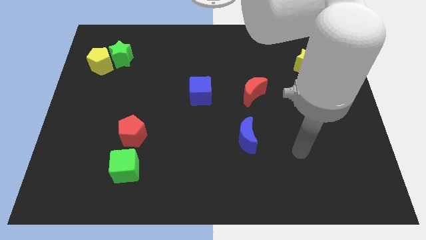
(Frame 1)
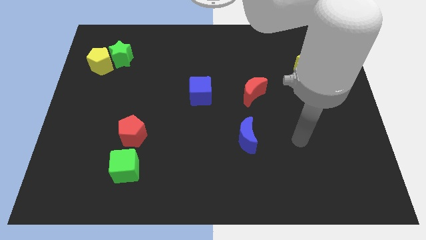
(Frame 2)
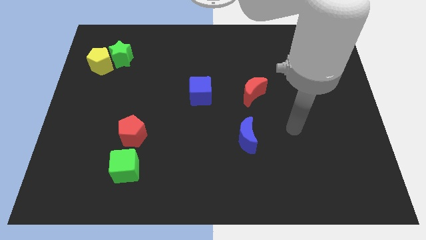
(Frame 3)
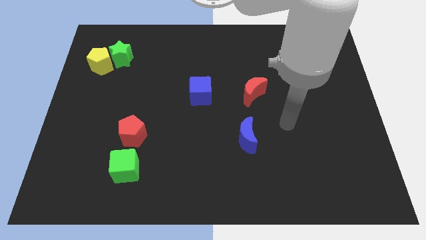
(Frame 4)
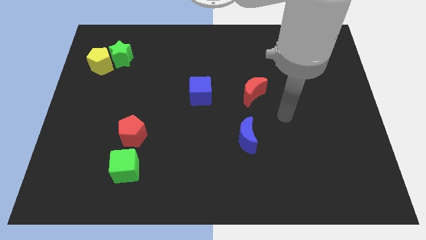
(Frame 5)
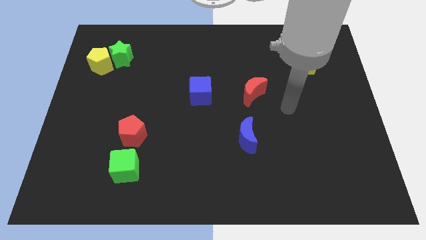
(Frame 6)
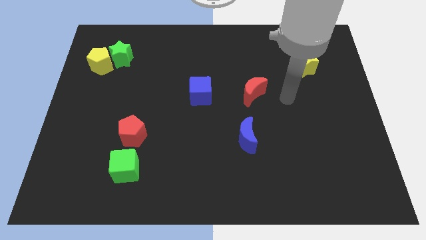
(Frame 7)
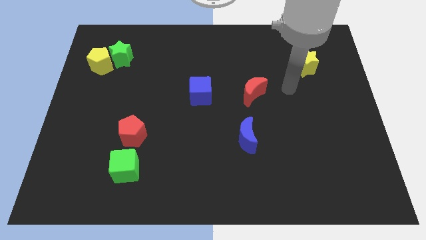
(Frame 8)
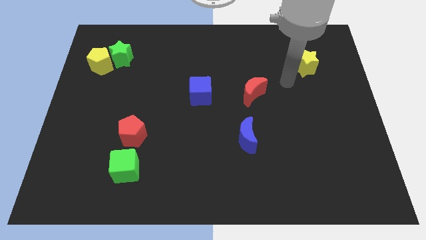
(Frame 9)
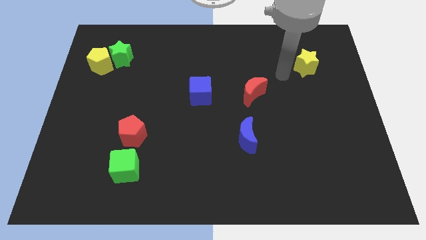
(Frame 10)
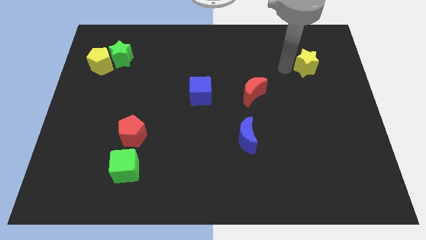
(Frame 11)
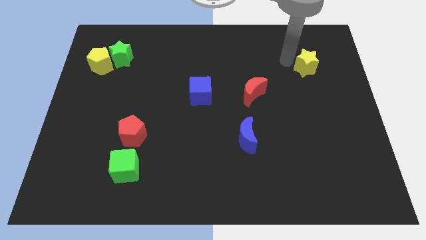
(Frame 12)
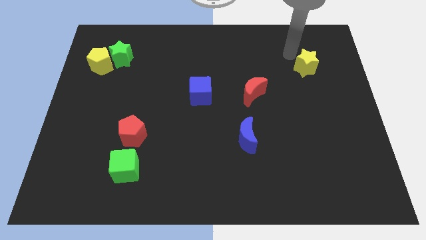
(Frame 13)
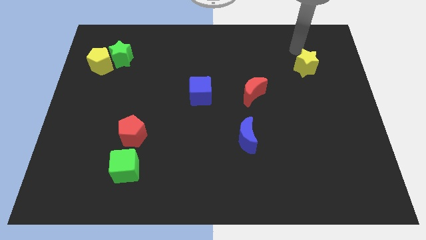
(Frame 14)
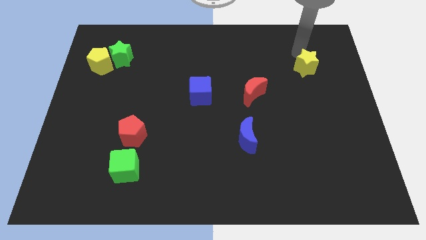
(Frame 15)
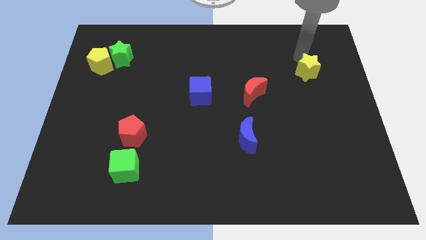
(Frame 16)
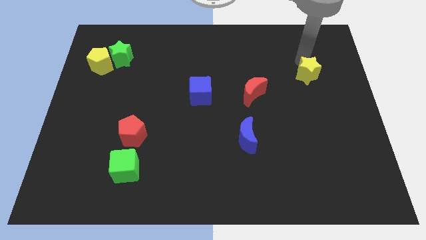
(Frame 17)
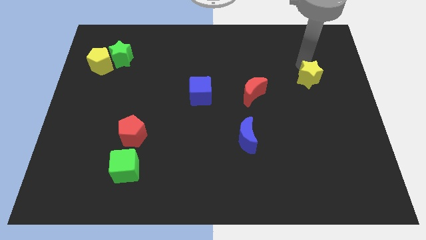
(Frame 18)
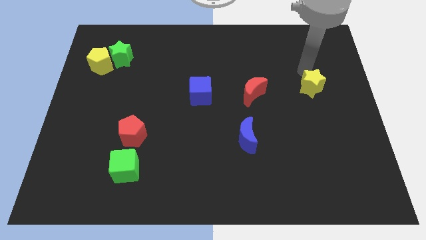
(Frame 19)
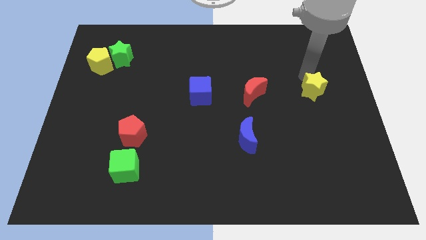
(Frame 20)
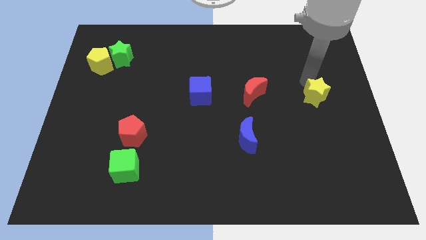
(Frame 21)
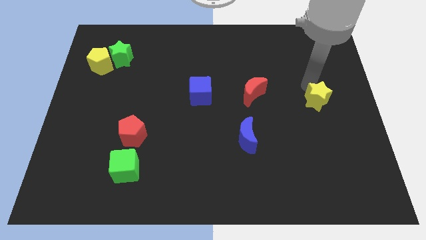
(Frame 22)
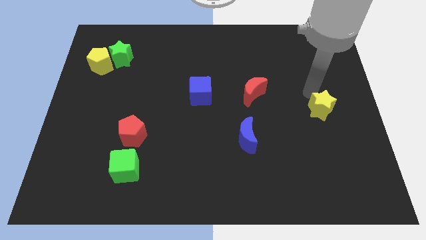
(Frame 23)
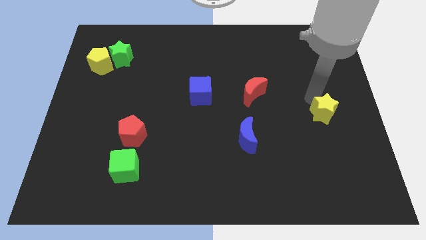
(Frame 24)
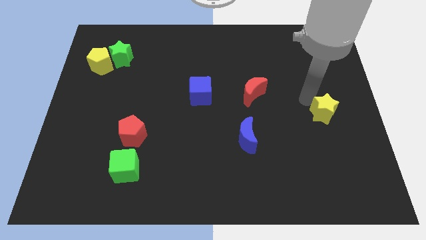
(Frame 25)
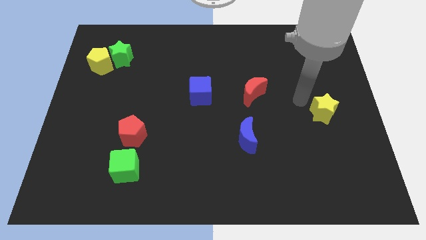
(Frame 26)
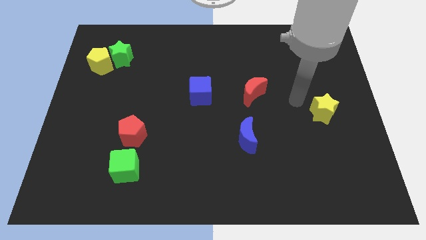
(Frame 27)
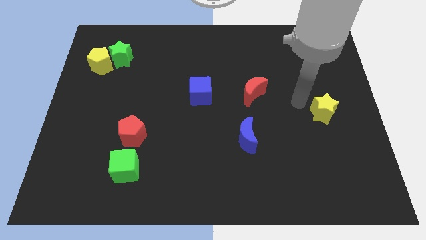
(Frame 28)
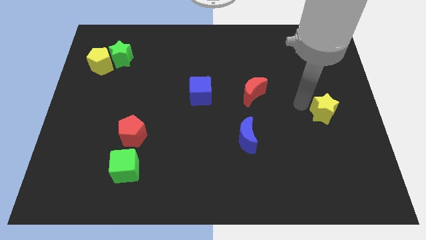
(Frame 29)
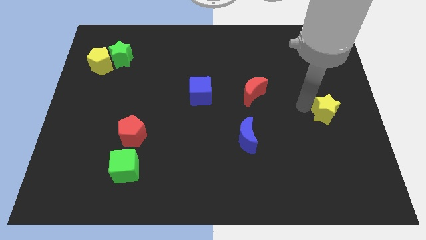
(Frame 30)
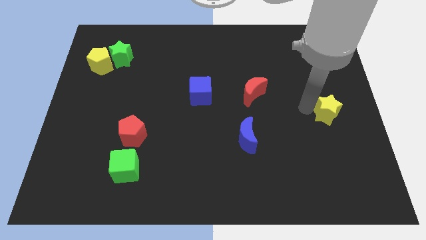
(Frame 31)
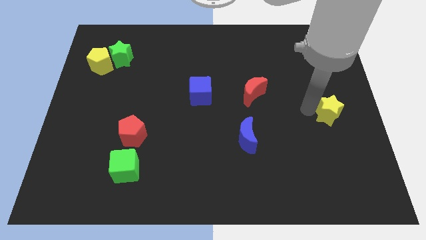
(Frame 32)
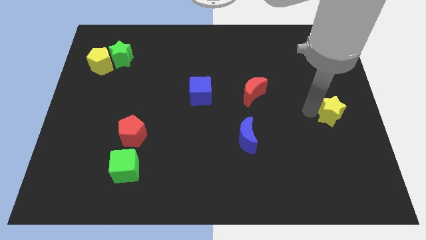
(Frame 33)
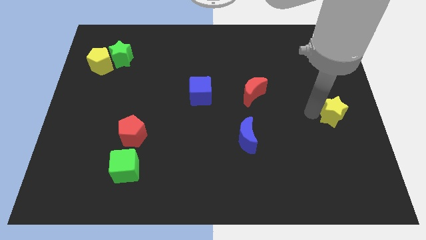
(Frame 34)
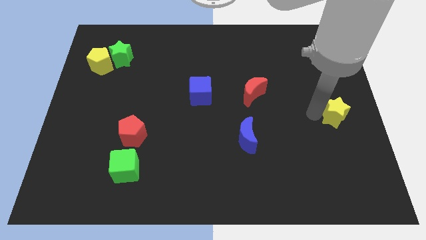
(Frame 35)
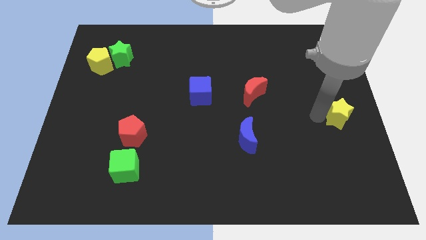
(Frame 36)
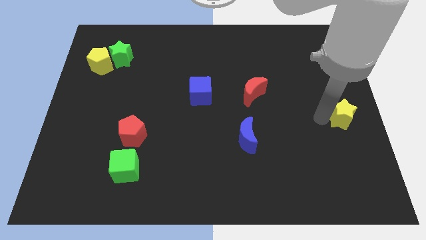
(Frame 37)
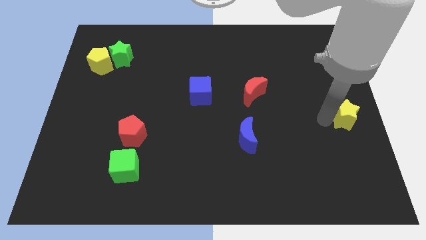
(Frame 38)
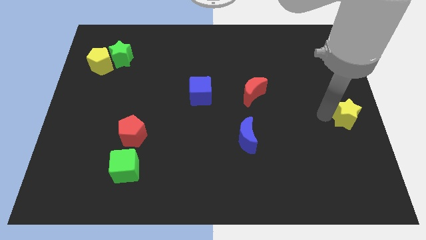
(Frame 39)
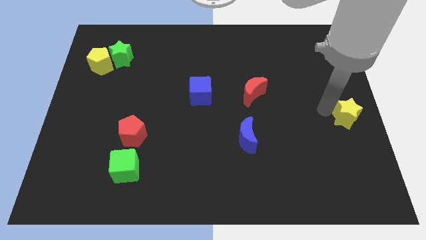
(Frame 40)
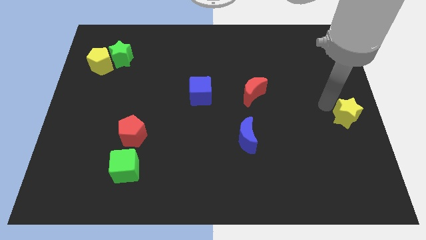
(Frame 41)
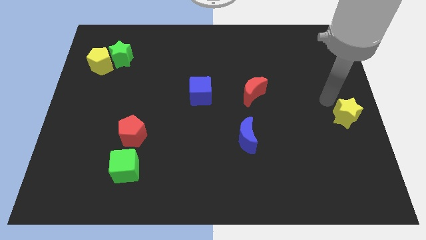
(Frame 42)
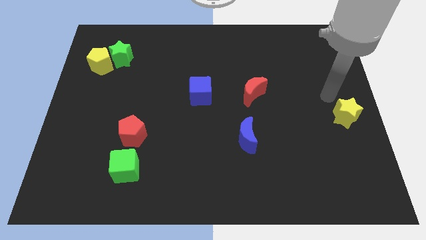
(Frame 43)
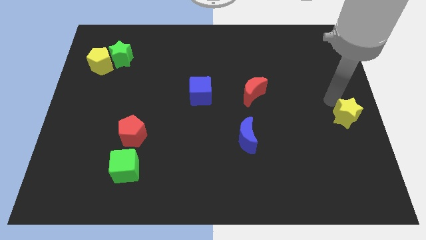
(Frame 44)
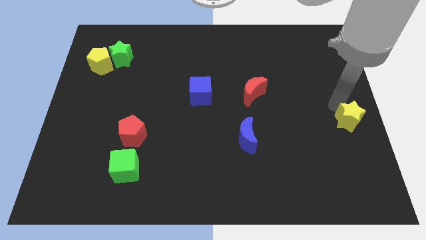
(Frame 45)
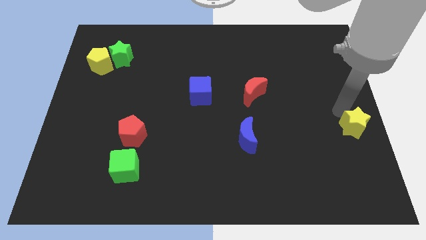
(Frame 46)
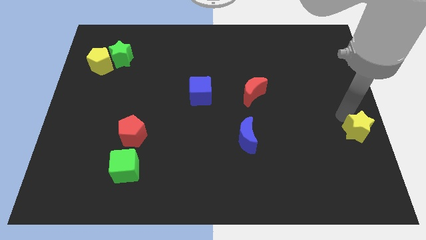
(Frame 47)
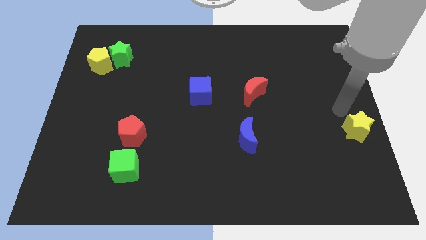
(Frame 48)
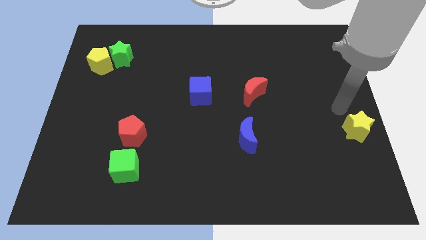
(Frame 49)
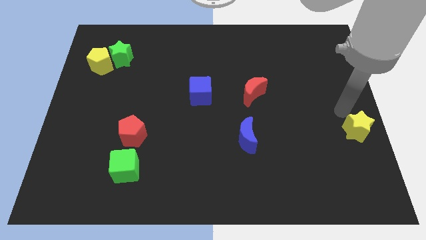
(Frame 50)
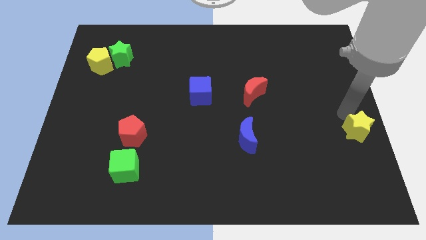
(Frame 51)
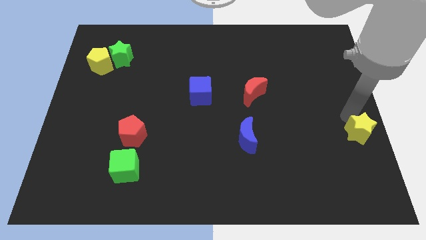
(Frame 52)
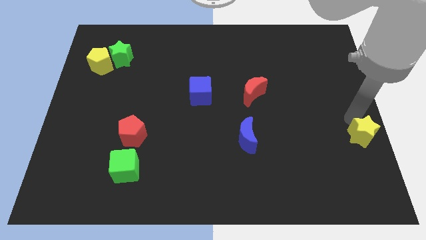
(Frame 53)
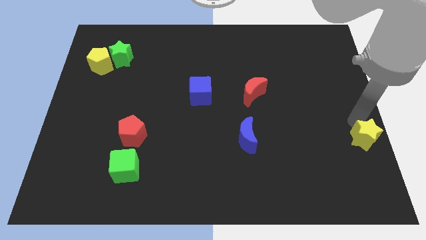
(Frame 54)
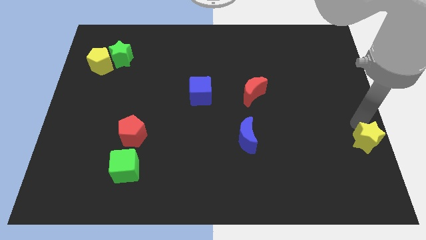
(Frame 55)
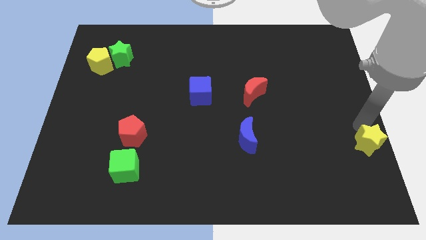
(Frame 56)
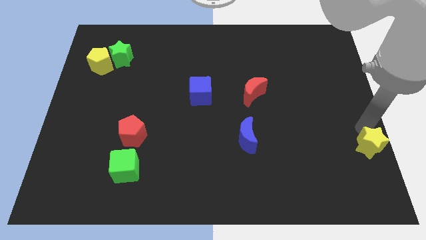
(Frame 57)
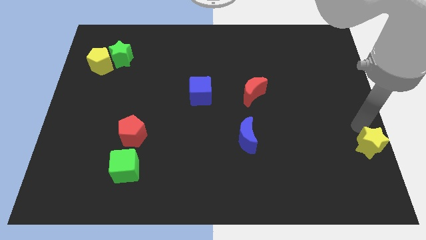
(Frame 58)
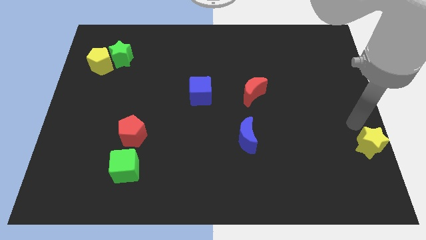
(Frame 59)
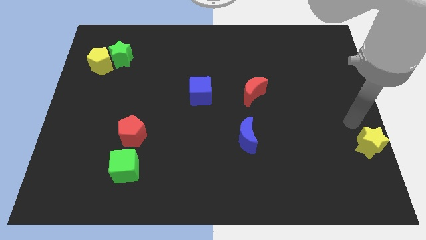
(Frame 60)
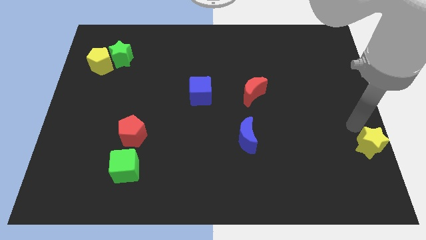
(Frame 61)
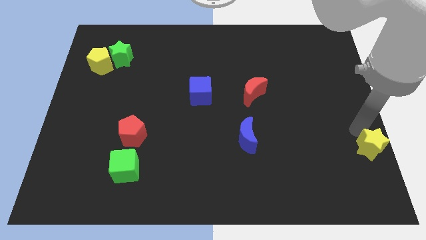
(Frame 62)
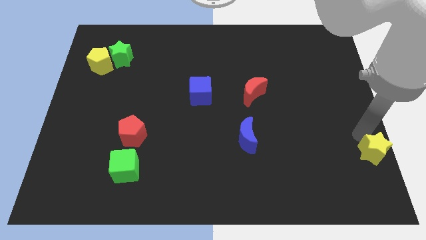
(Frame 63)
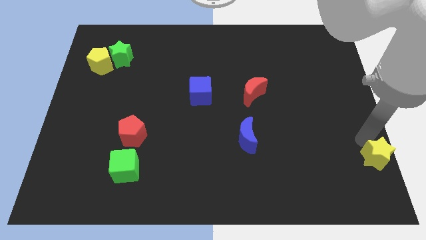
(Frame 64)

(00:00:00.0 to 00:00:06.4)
slide the yellow star to the bottom right
